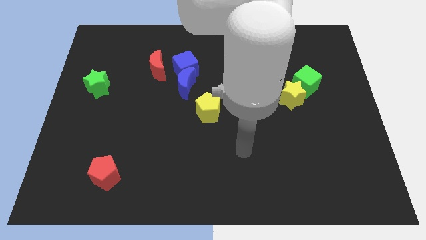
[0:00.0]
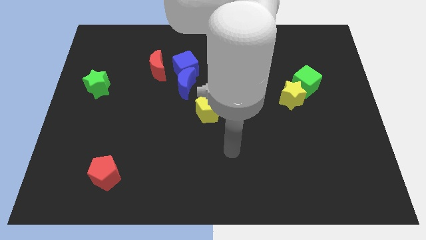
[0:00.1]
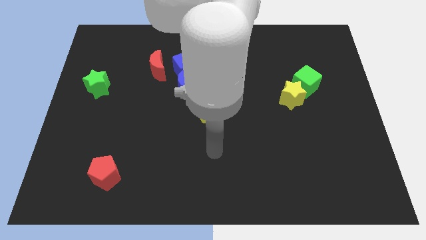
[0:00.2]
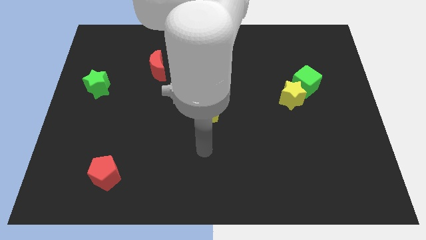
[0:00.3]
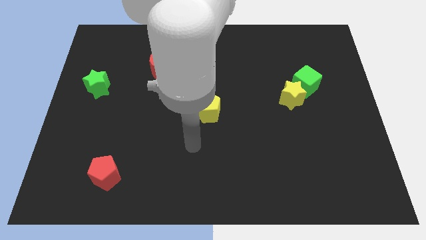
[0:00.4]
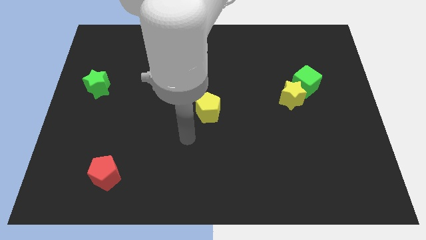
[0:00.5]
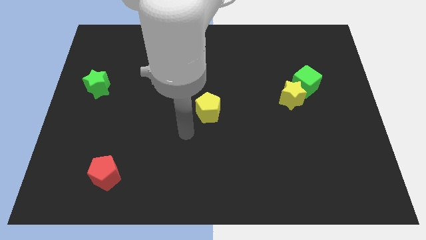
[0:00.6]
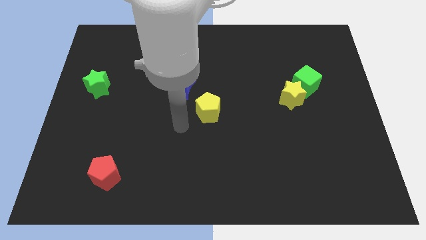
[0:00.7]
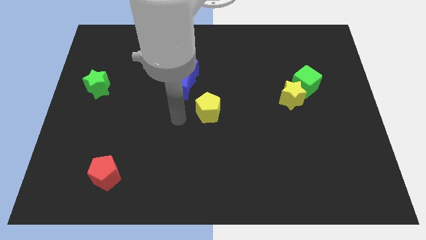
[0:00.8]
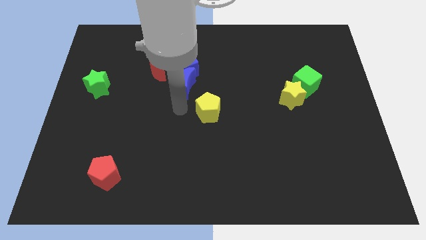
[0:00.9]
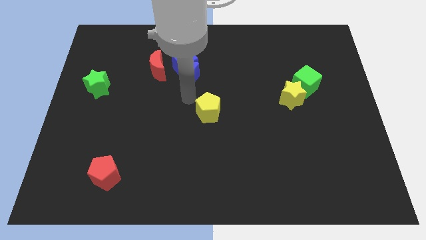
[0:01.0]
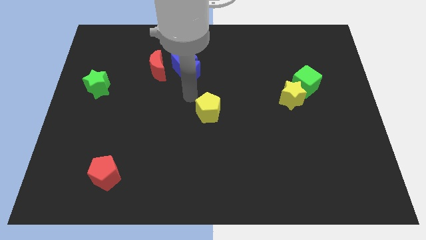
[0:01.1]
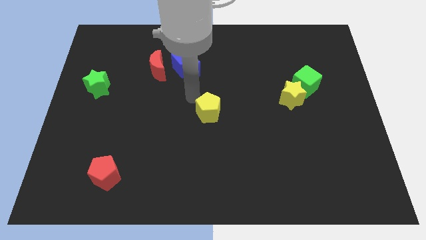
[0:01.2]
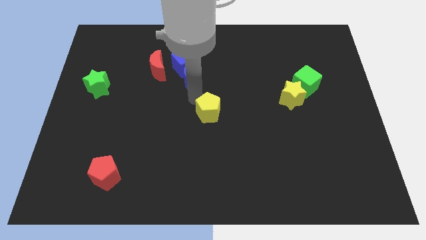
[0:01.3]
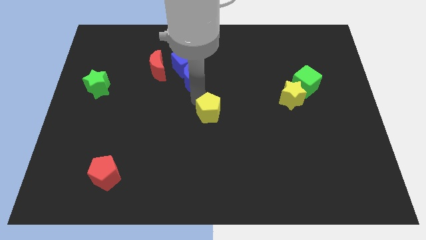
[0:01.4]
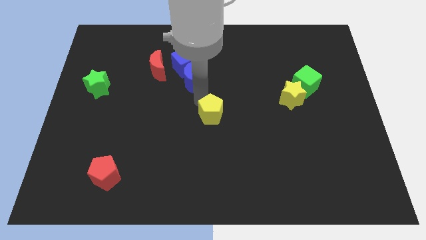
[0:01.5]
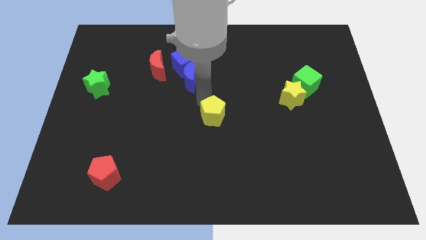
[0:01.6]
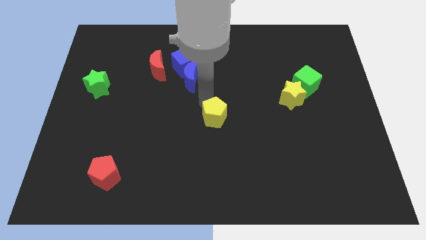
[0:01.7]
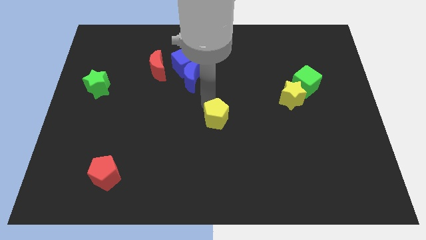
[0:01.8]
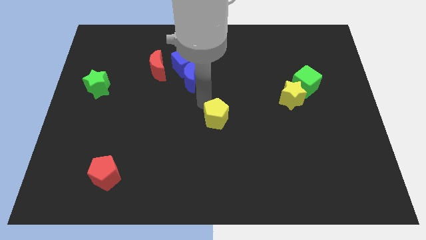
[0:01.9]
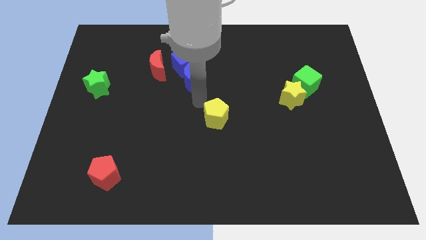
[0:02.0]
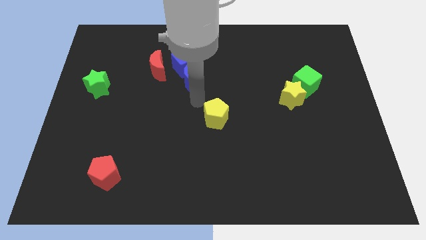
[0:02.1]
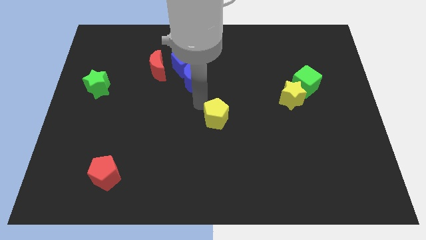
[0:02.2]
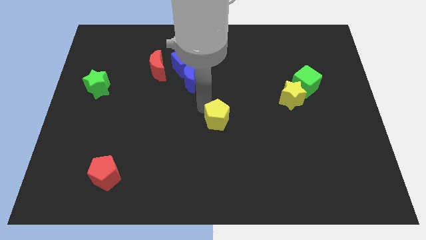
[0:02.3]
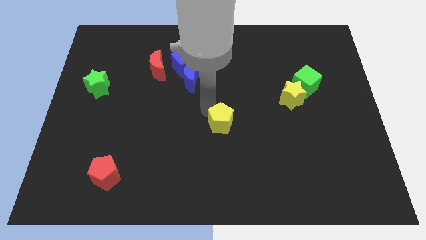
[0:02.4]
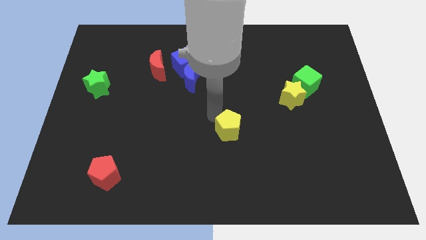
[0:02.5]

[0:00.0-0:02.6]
slightly push the yellow pentagon downwards and right diagonally

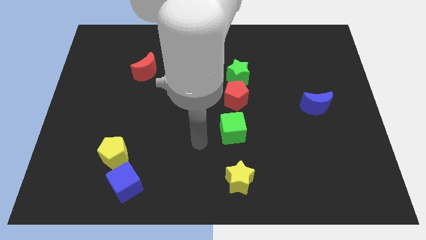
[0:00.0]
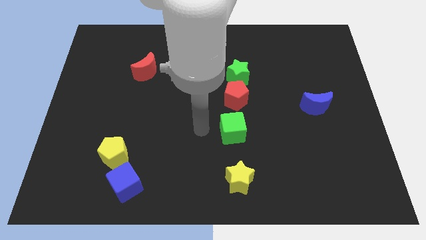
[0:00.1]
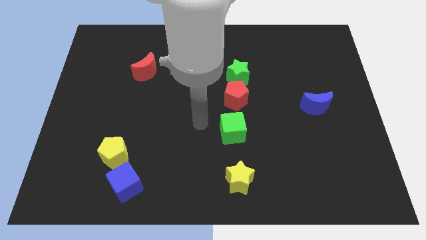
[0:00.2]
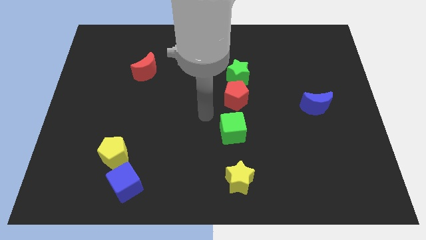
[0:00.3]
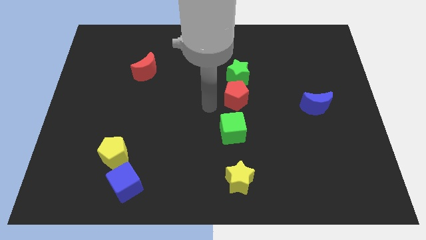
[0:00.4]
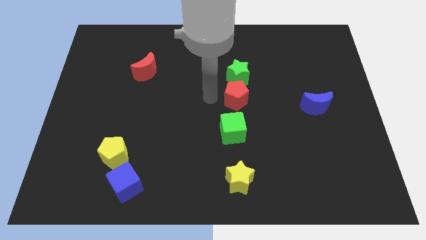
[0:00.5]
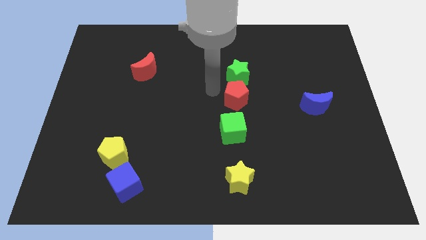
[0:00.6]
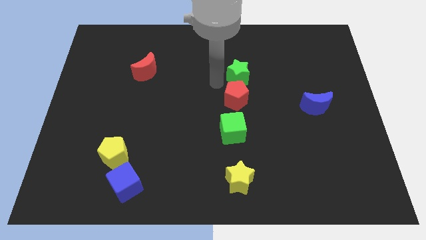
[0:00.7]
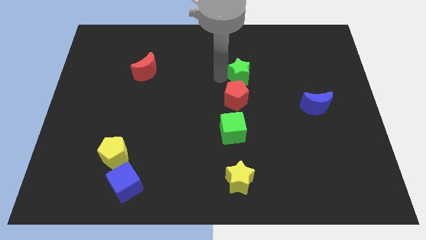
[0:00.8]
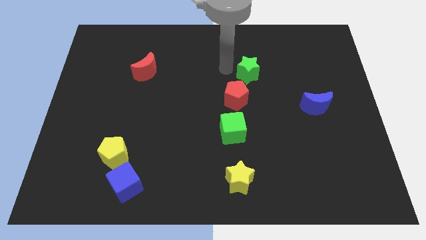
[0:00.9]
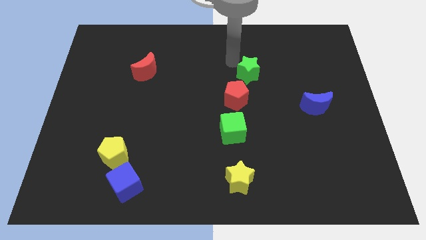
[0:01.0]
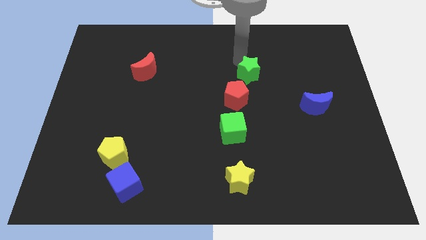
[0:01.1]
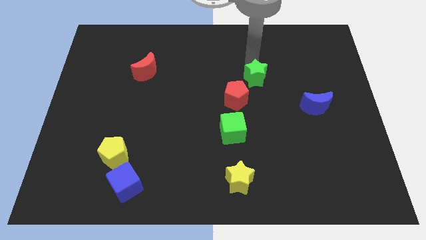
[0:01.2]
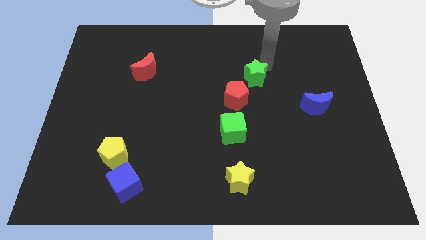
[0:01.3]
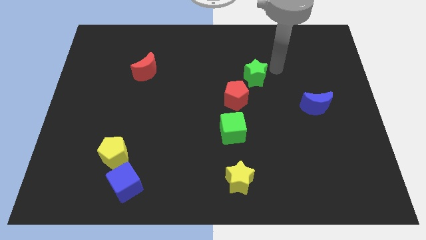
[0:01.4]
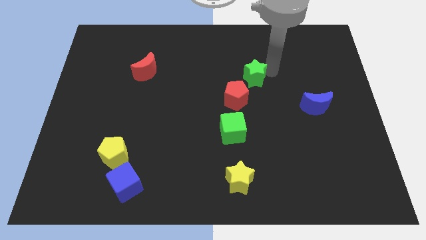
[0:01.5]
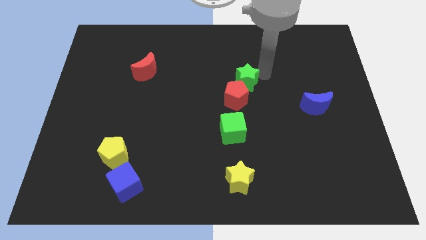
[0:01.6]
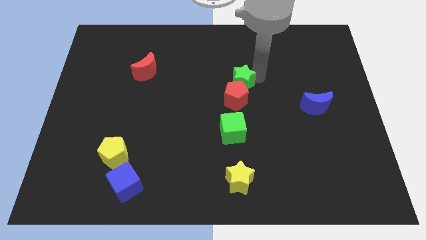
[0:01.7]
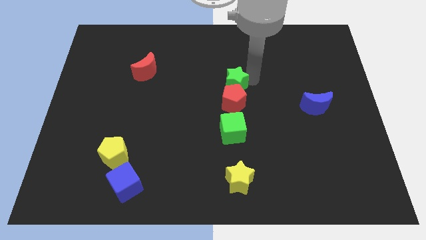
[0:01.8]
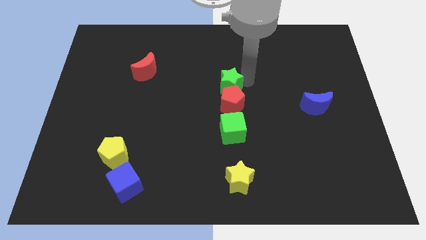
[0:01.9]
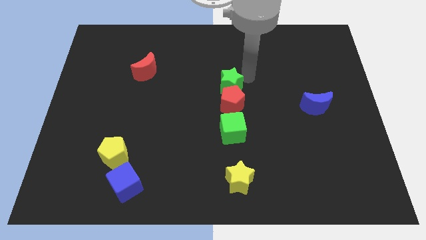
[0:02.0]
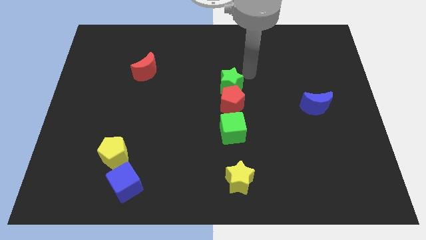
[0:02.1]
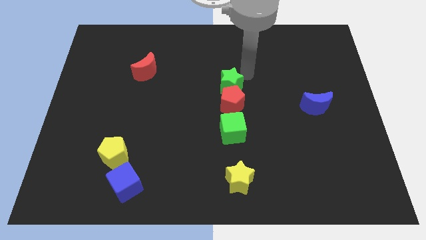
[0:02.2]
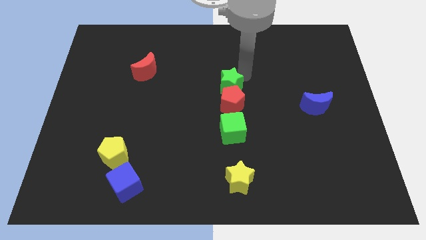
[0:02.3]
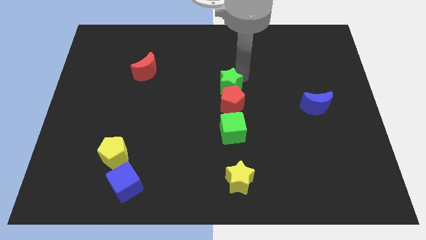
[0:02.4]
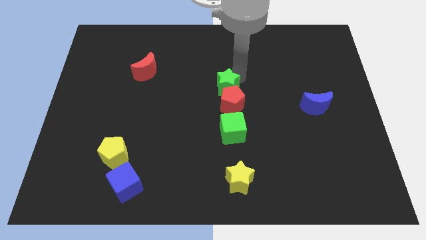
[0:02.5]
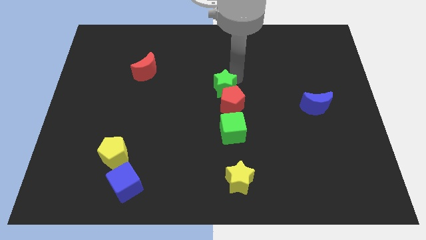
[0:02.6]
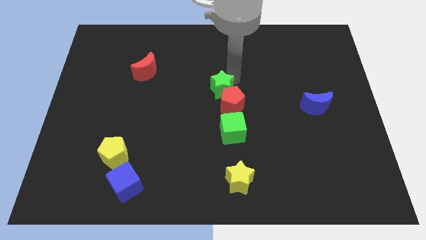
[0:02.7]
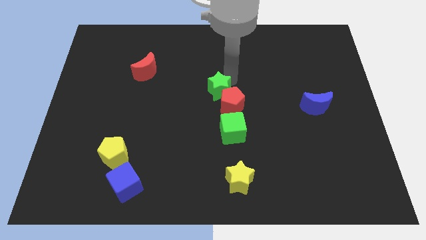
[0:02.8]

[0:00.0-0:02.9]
move the green star down and then left somewhat

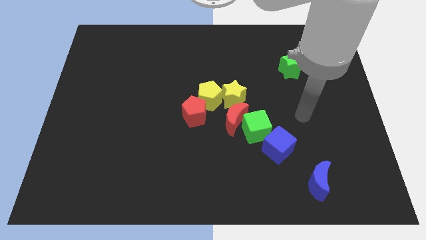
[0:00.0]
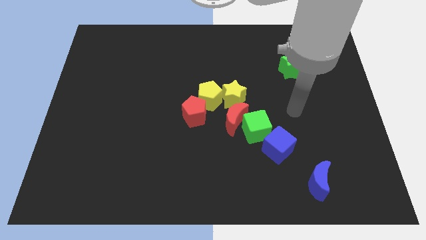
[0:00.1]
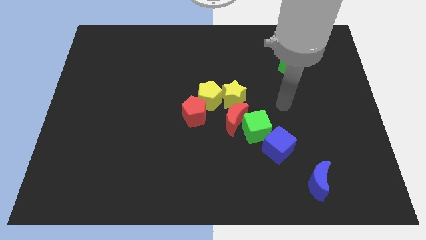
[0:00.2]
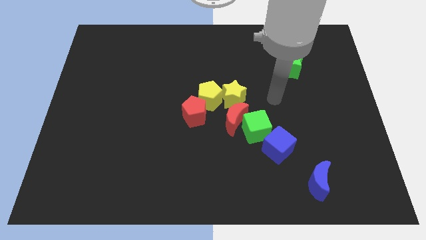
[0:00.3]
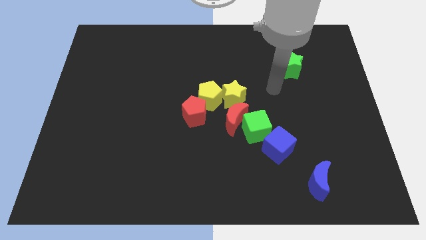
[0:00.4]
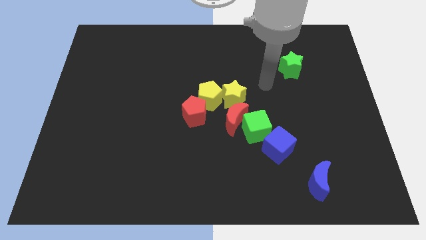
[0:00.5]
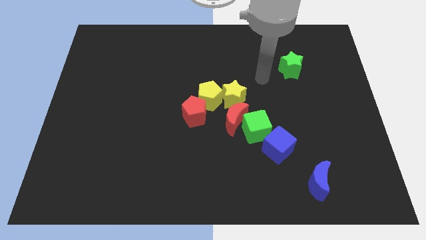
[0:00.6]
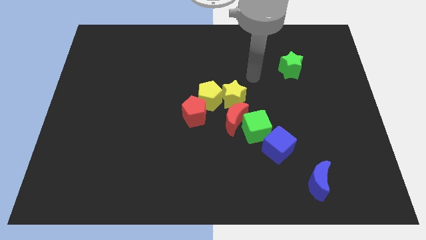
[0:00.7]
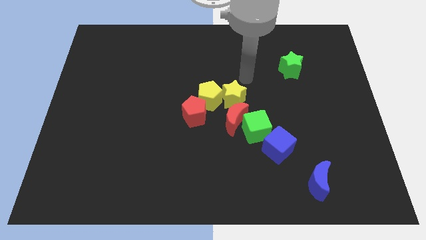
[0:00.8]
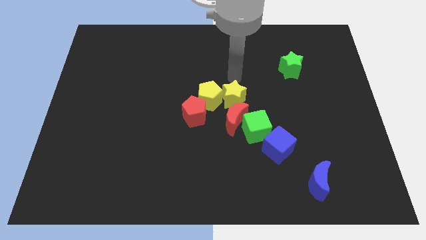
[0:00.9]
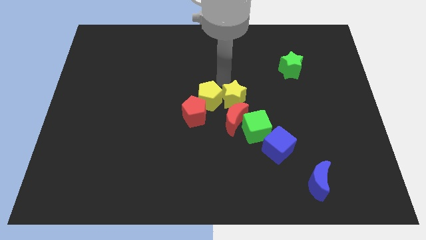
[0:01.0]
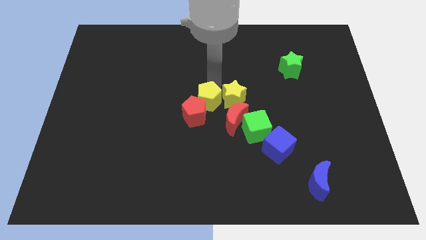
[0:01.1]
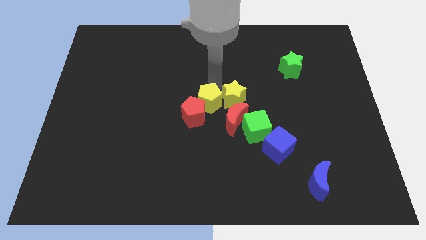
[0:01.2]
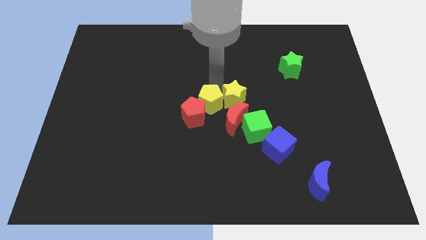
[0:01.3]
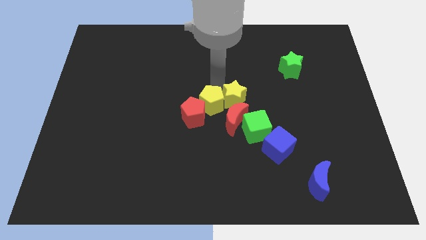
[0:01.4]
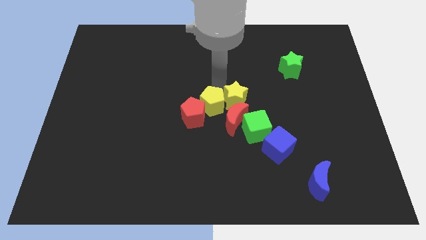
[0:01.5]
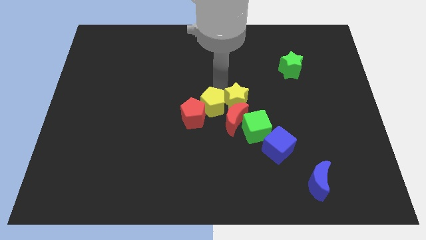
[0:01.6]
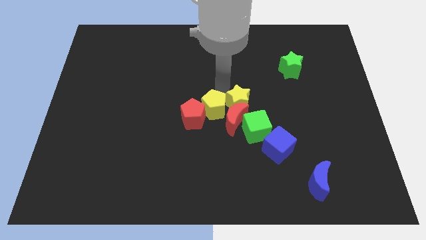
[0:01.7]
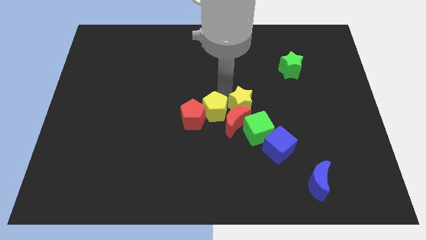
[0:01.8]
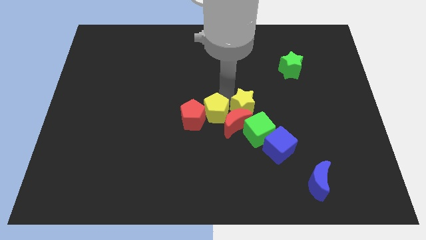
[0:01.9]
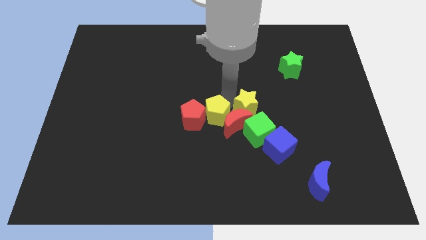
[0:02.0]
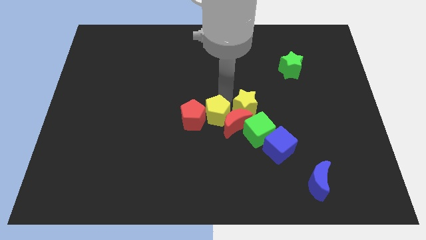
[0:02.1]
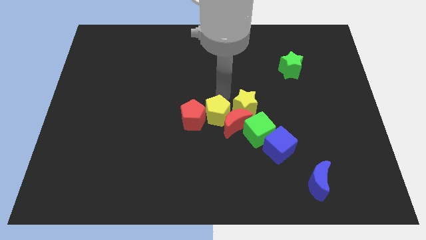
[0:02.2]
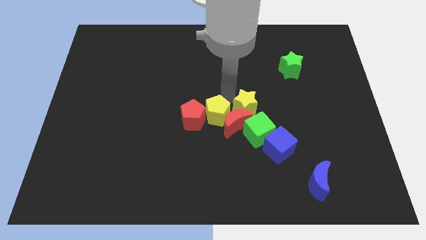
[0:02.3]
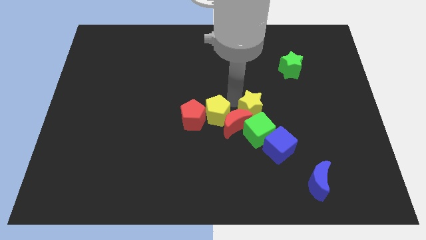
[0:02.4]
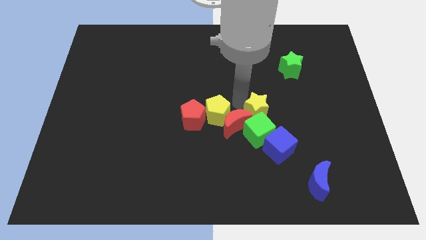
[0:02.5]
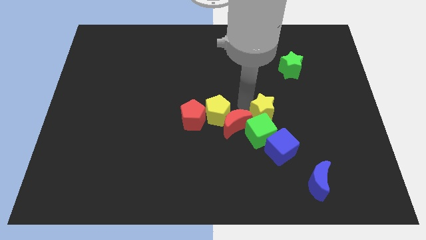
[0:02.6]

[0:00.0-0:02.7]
slightly move the yellow star diagonally down and right
